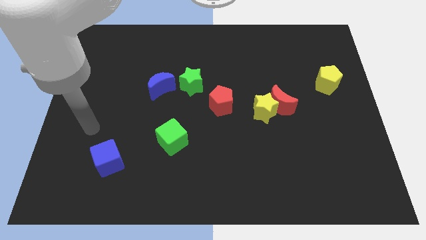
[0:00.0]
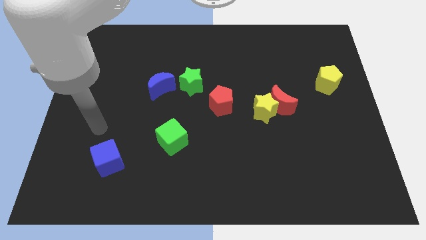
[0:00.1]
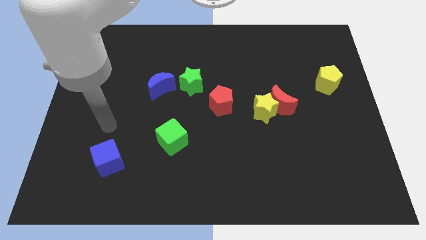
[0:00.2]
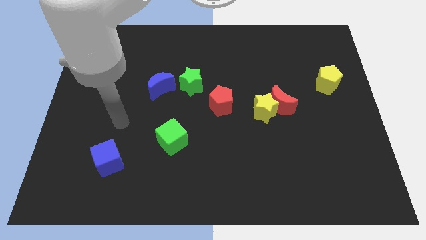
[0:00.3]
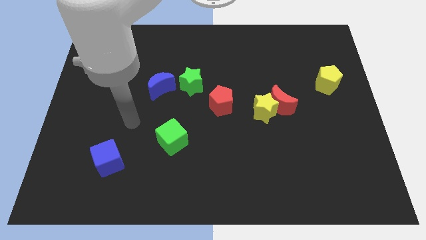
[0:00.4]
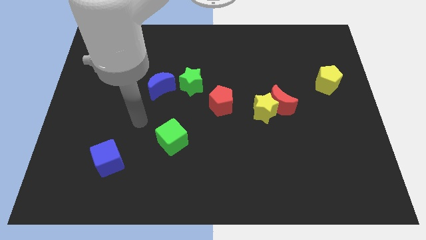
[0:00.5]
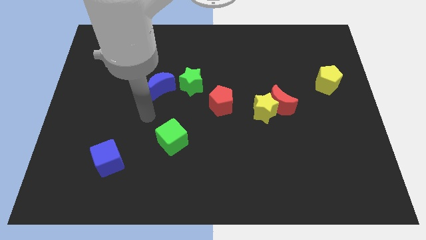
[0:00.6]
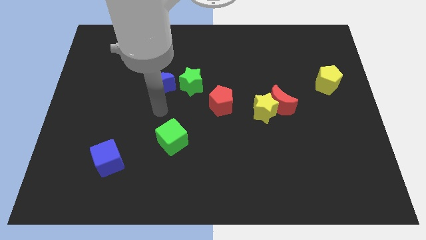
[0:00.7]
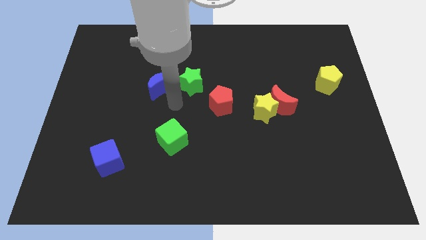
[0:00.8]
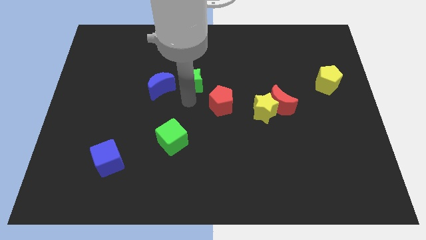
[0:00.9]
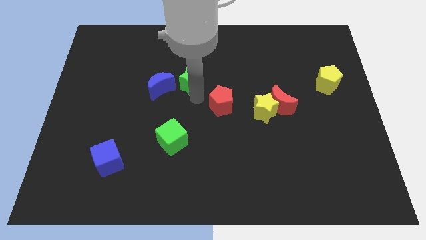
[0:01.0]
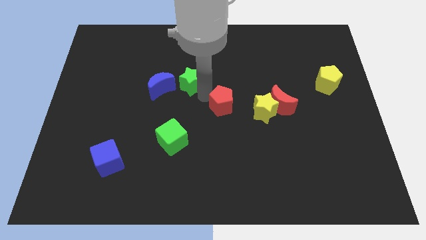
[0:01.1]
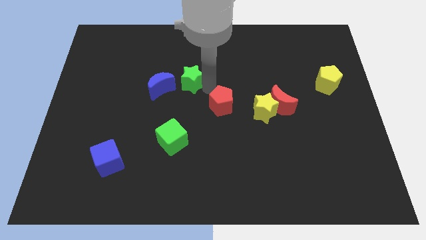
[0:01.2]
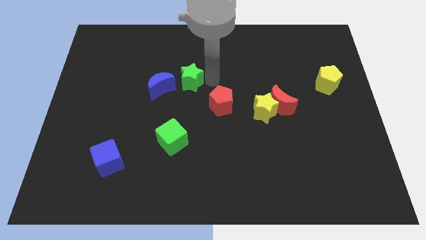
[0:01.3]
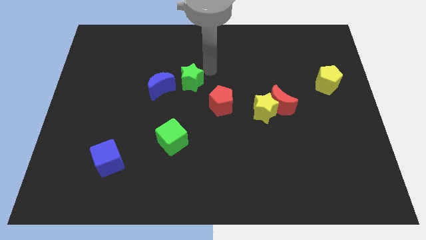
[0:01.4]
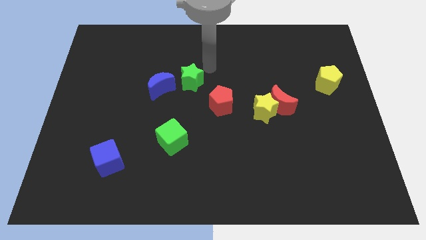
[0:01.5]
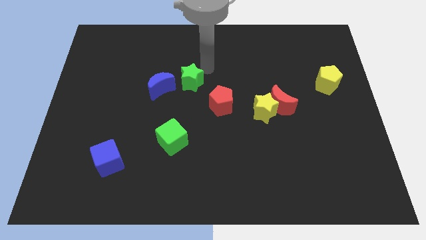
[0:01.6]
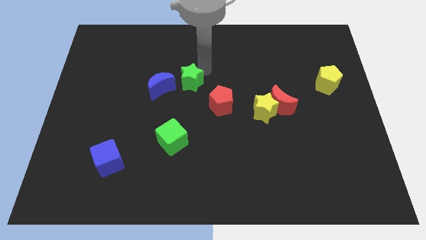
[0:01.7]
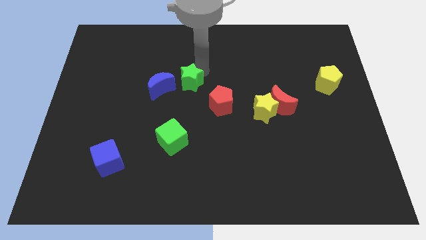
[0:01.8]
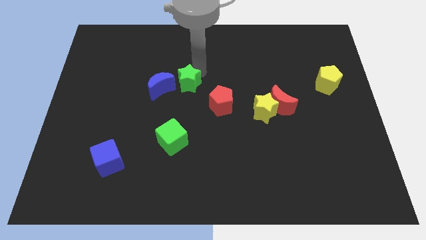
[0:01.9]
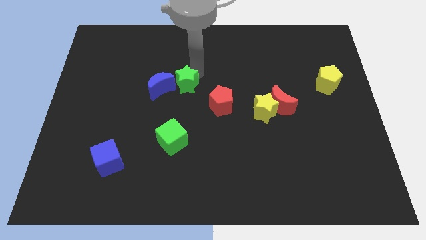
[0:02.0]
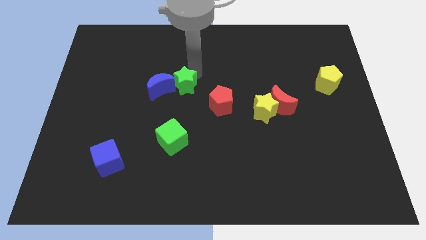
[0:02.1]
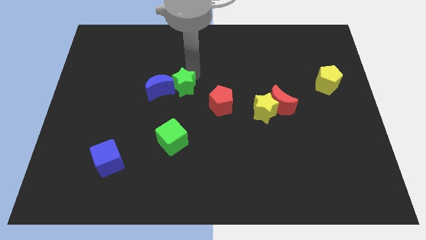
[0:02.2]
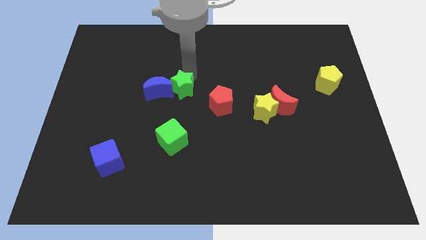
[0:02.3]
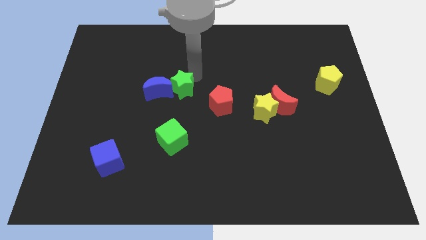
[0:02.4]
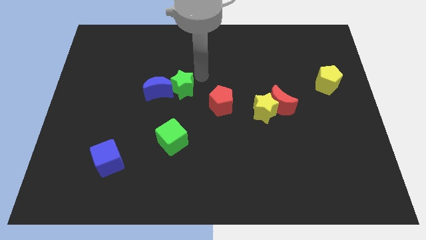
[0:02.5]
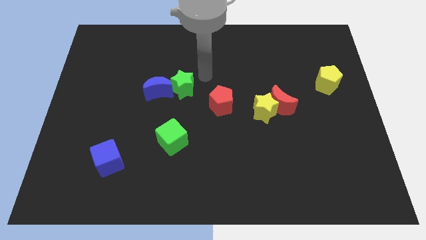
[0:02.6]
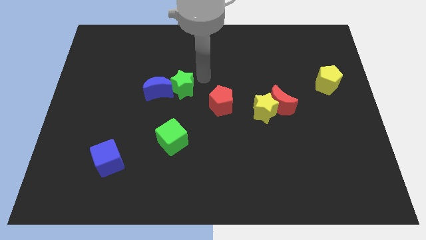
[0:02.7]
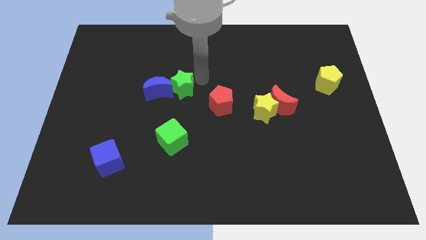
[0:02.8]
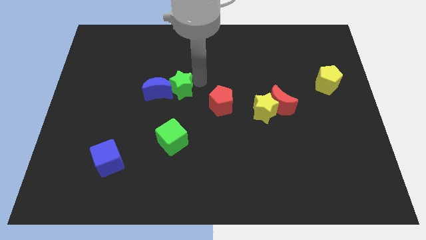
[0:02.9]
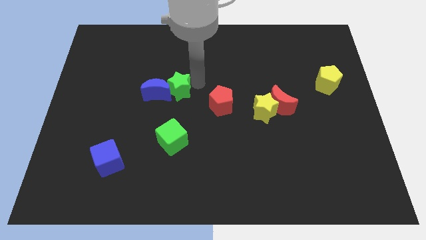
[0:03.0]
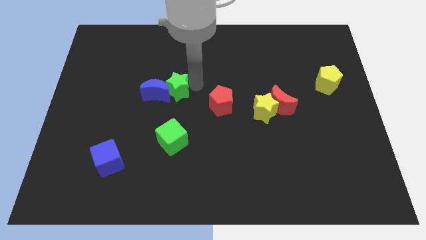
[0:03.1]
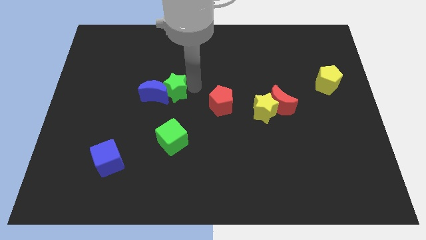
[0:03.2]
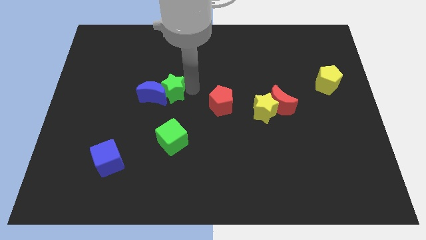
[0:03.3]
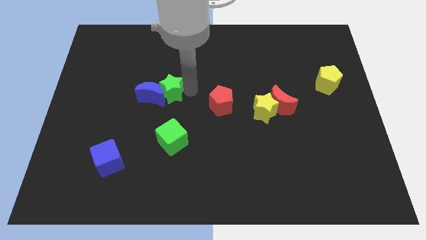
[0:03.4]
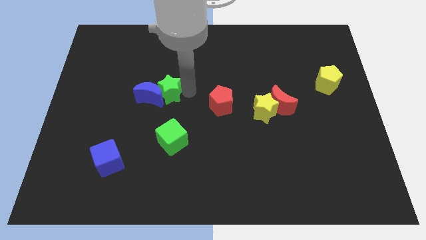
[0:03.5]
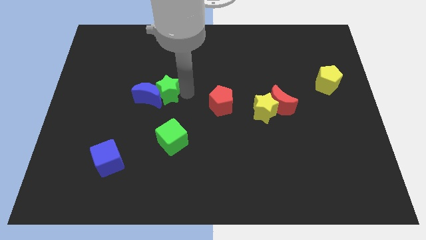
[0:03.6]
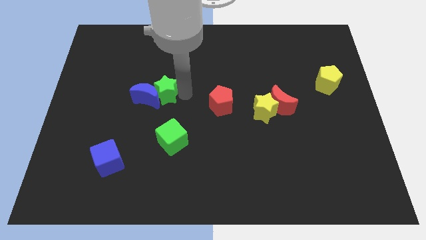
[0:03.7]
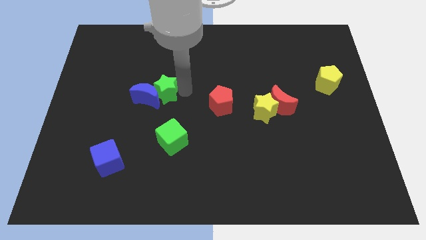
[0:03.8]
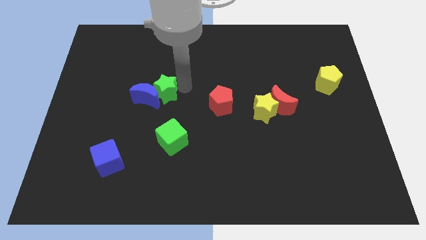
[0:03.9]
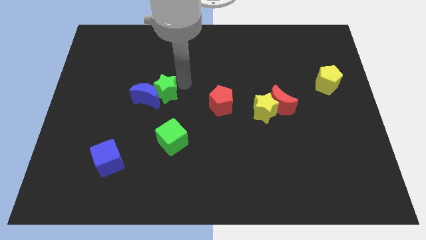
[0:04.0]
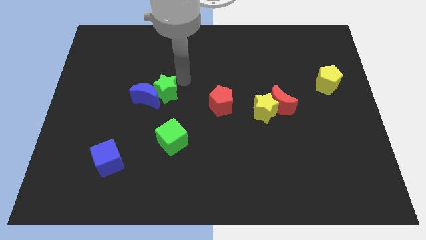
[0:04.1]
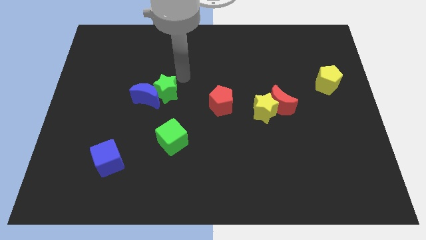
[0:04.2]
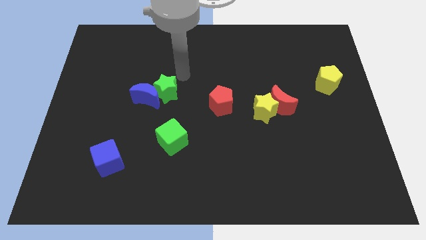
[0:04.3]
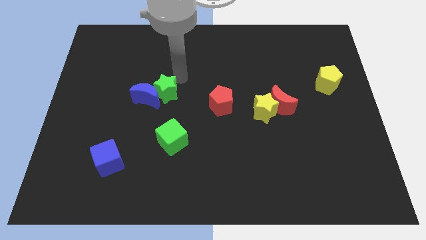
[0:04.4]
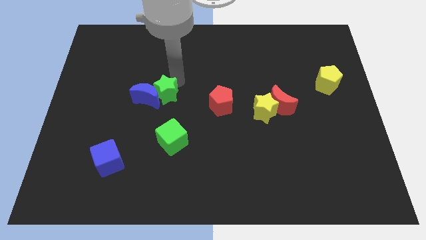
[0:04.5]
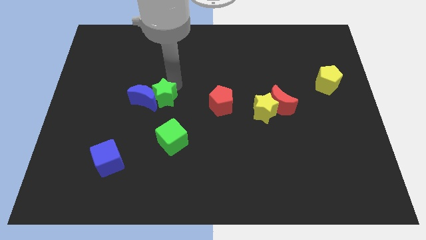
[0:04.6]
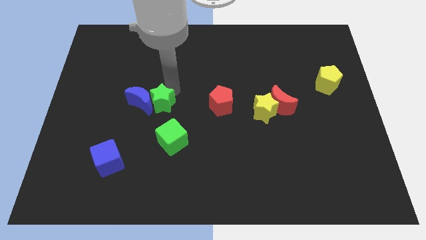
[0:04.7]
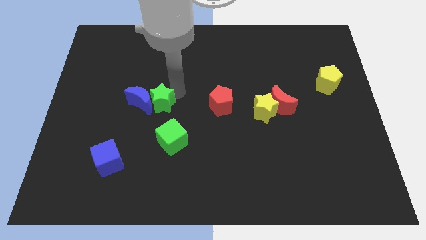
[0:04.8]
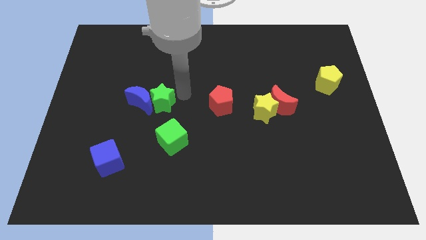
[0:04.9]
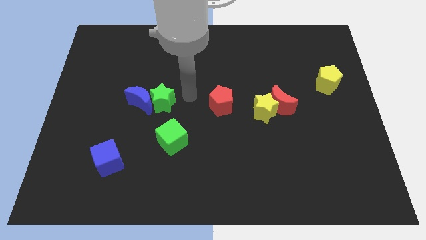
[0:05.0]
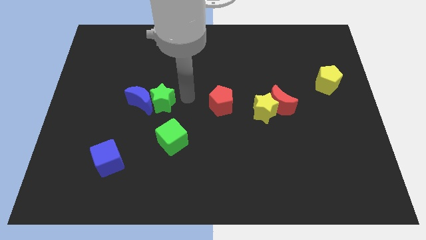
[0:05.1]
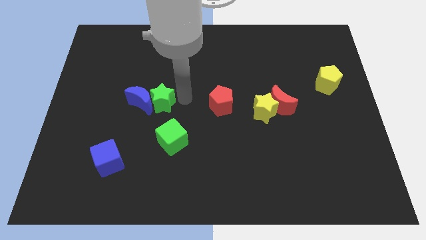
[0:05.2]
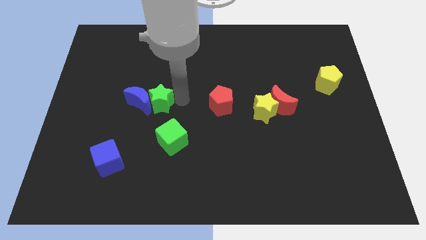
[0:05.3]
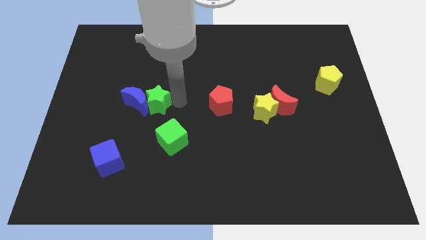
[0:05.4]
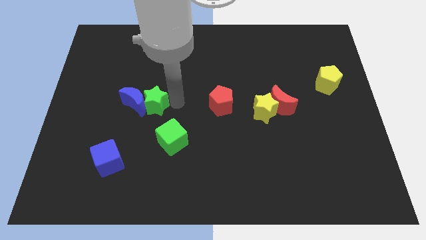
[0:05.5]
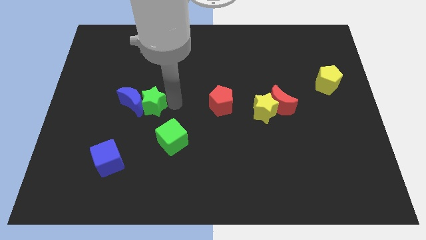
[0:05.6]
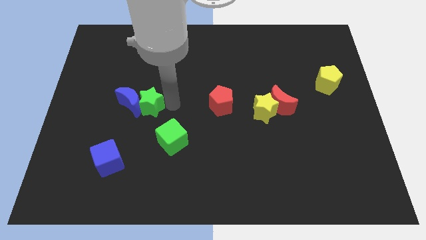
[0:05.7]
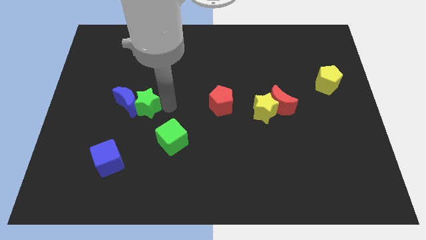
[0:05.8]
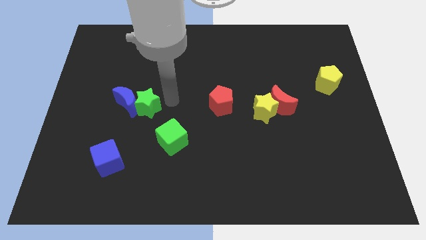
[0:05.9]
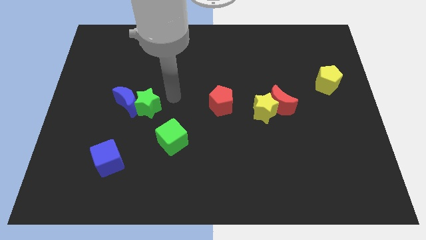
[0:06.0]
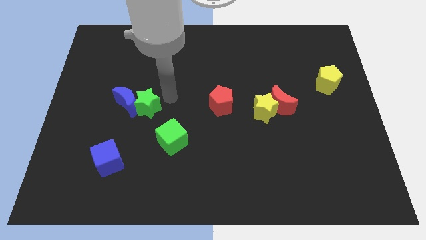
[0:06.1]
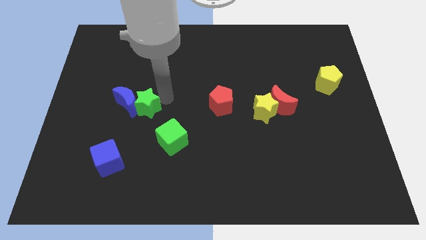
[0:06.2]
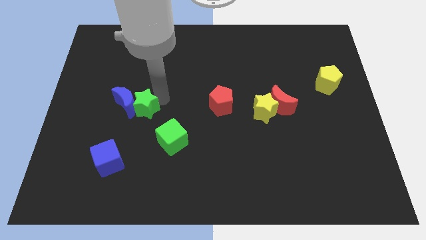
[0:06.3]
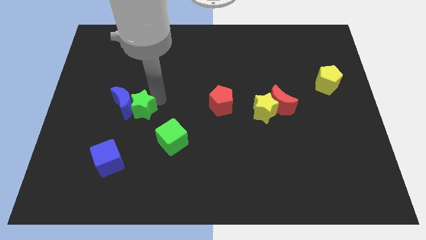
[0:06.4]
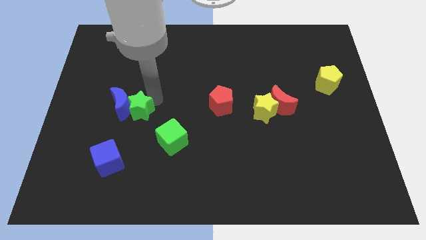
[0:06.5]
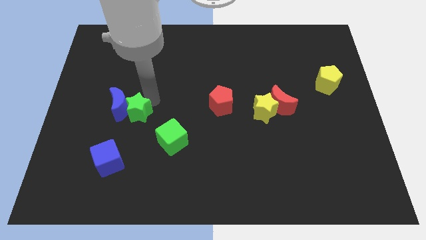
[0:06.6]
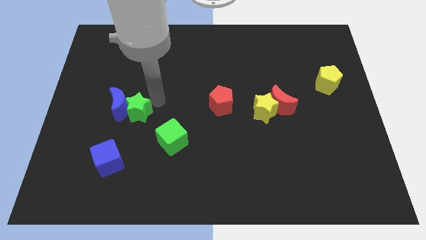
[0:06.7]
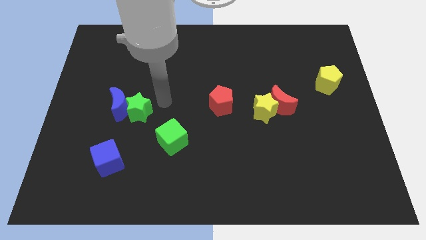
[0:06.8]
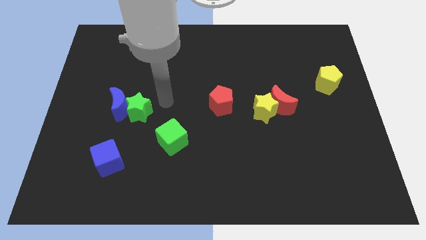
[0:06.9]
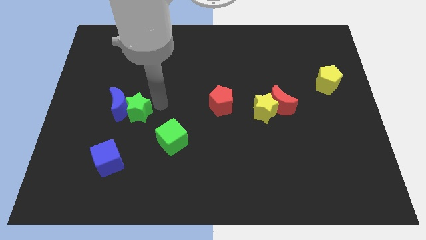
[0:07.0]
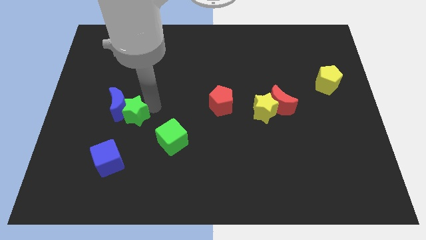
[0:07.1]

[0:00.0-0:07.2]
push the green star to the top side of the blue cube
